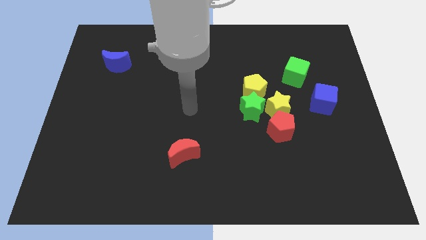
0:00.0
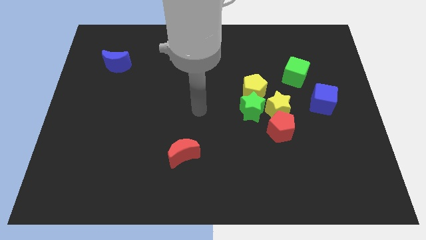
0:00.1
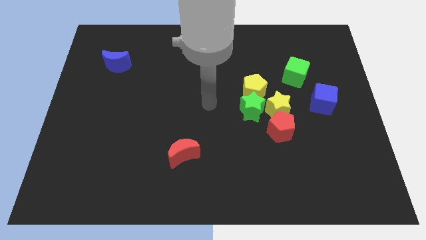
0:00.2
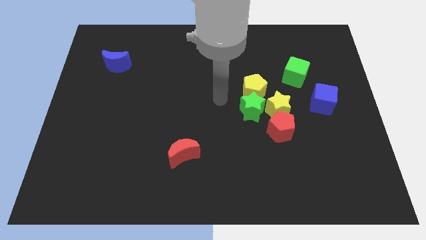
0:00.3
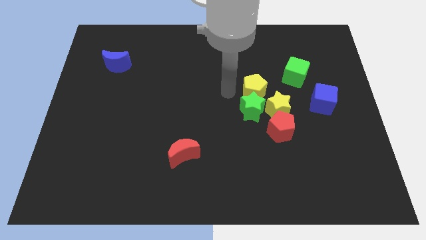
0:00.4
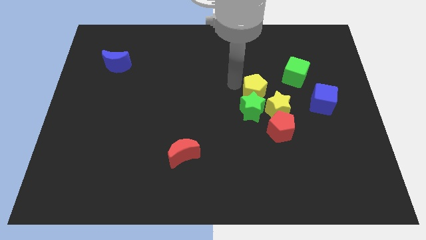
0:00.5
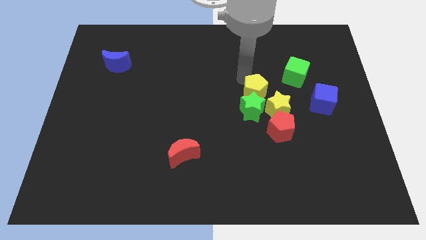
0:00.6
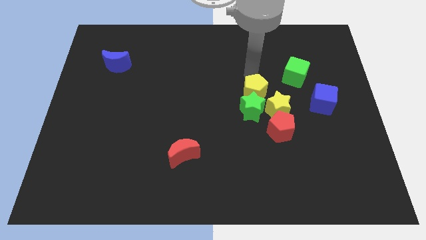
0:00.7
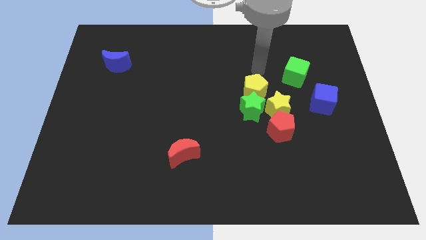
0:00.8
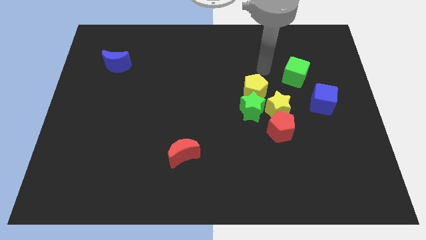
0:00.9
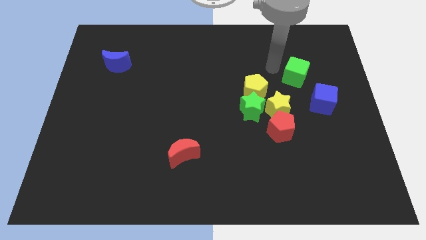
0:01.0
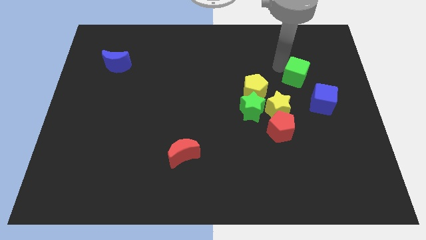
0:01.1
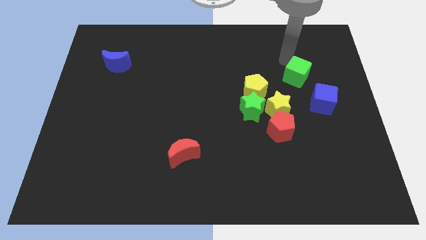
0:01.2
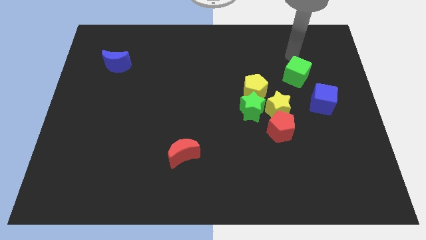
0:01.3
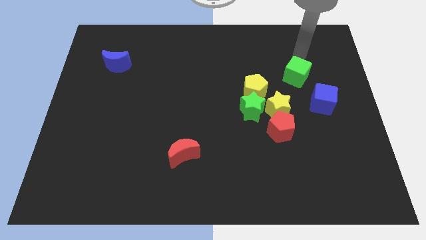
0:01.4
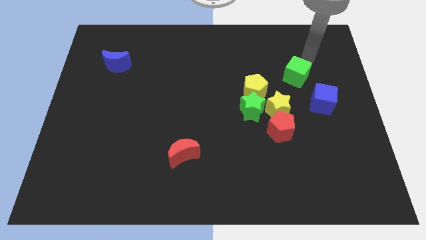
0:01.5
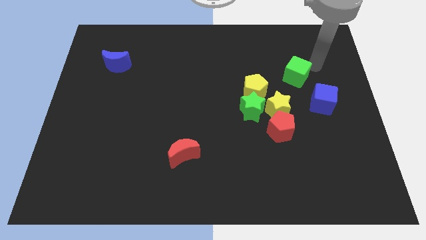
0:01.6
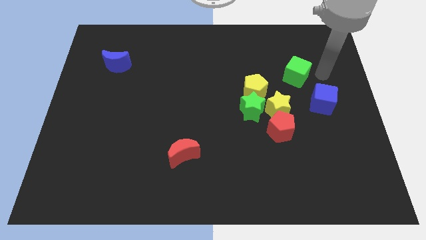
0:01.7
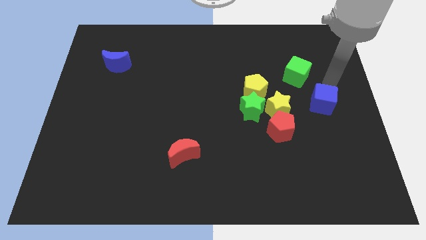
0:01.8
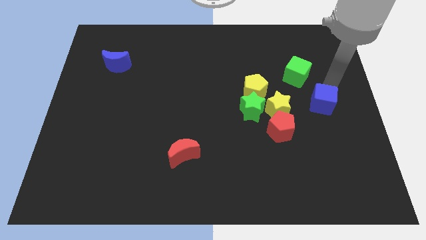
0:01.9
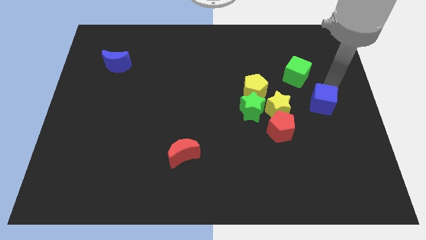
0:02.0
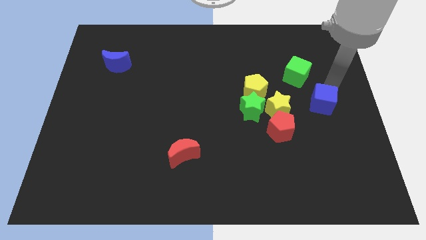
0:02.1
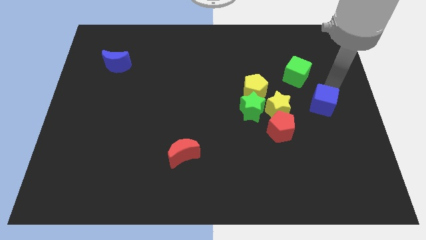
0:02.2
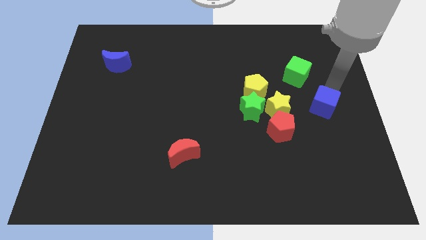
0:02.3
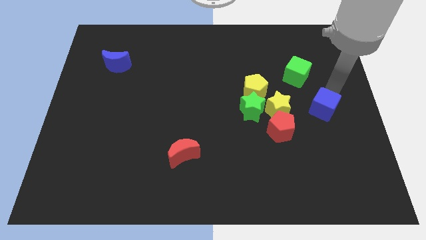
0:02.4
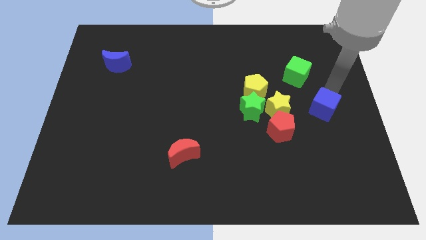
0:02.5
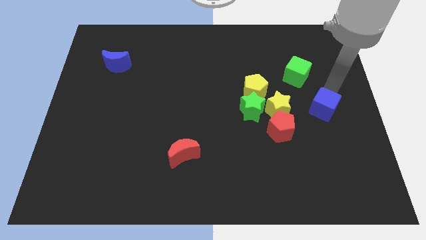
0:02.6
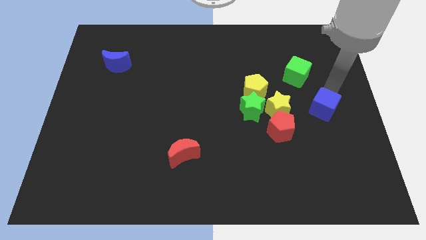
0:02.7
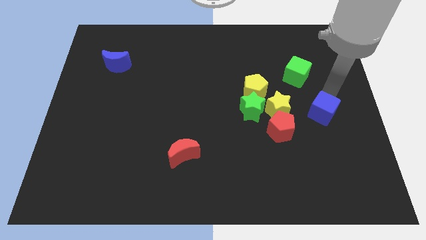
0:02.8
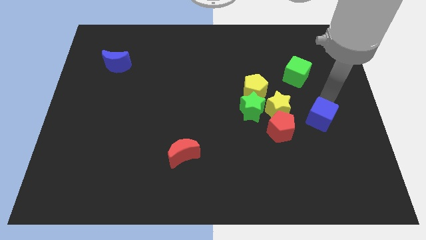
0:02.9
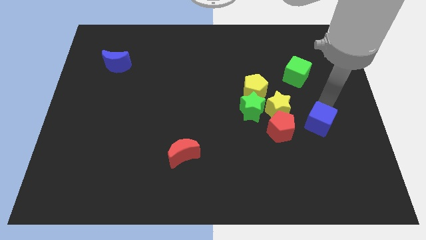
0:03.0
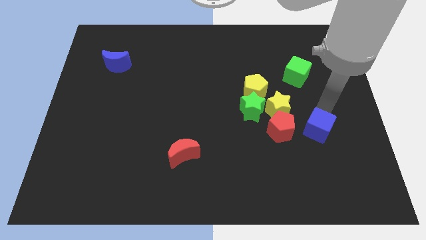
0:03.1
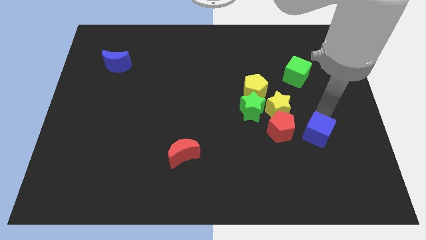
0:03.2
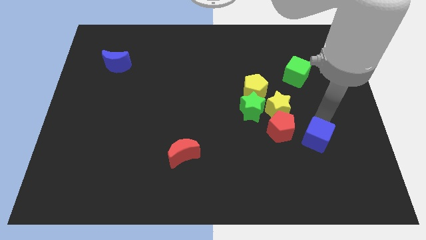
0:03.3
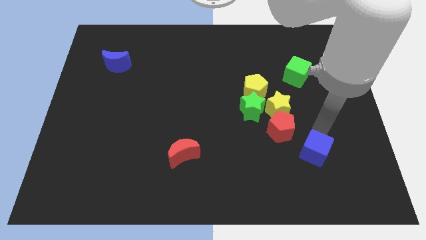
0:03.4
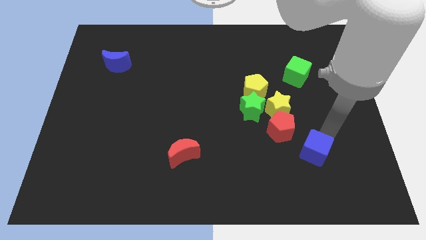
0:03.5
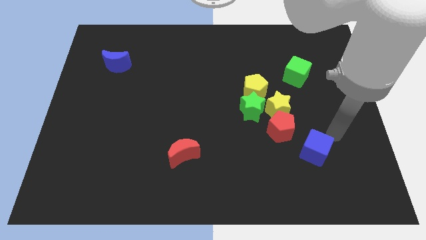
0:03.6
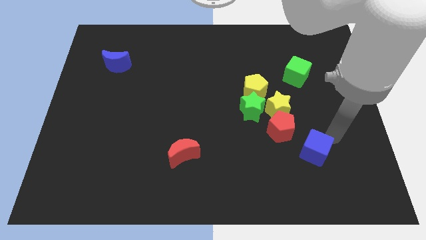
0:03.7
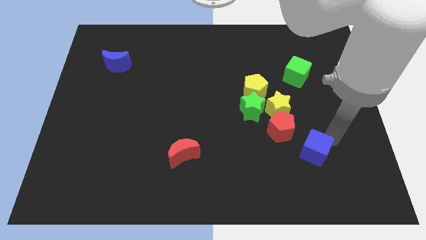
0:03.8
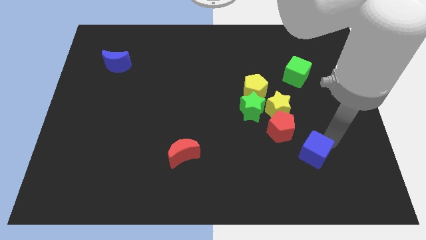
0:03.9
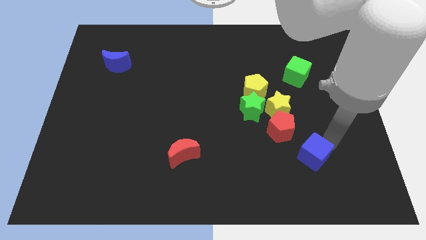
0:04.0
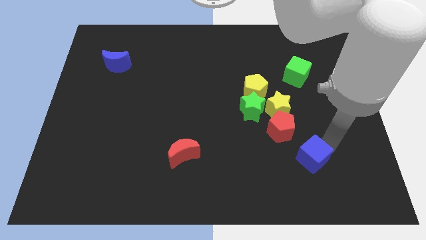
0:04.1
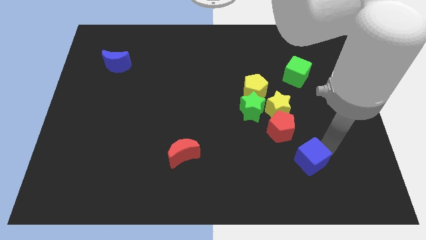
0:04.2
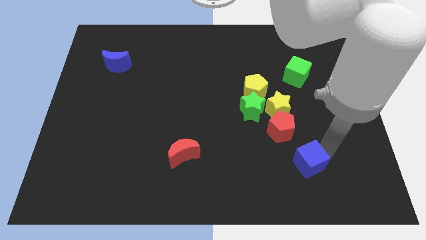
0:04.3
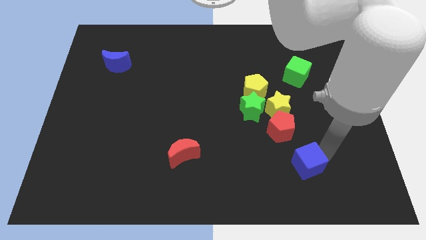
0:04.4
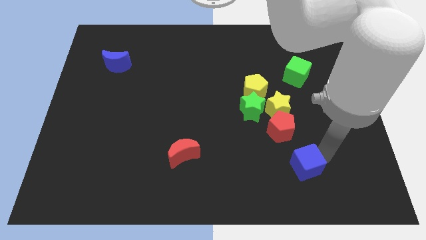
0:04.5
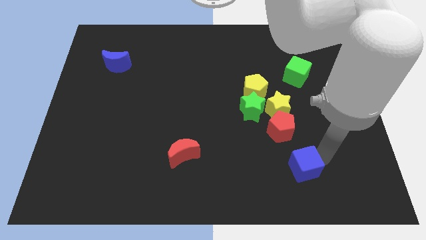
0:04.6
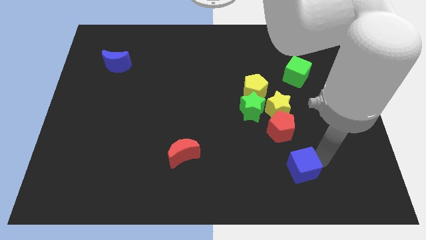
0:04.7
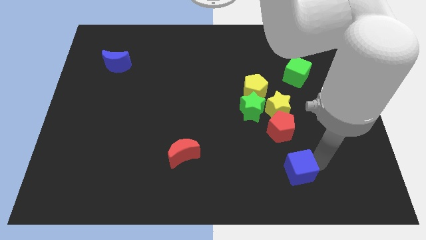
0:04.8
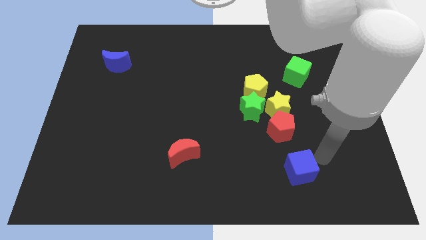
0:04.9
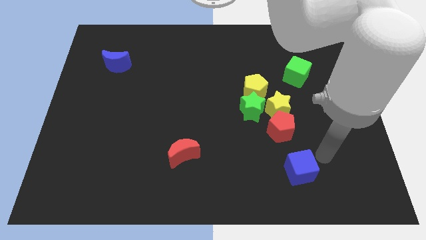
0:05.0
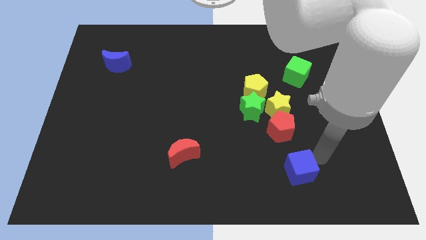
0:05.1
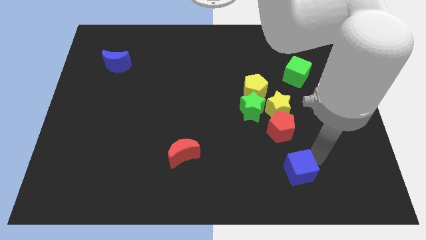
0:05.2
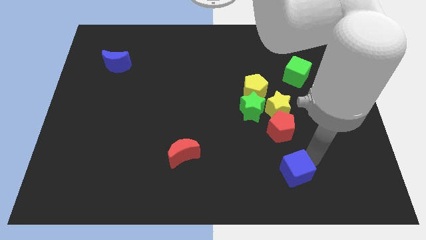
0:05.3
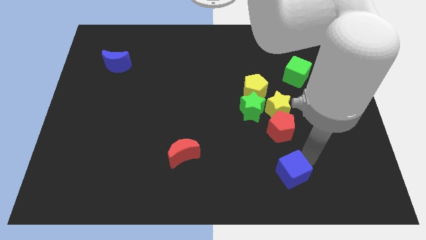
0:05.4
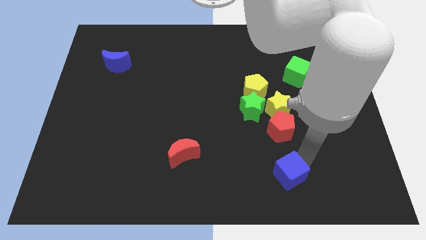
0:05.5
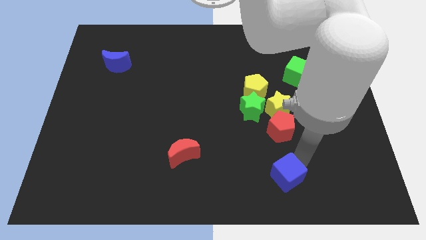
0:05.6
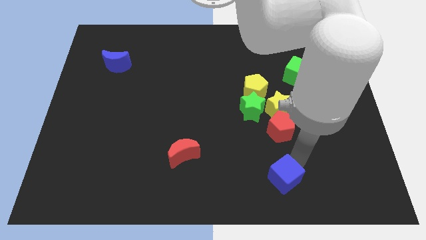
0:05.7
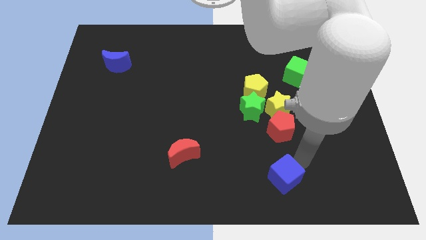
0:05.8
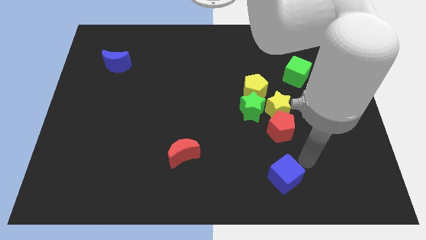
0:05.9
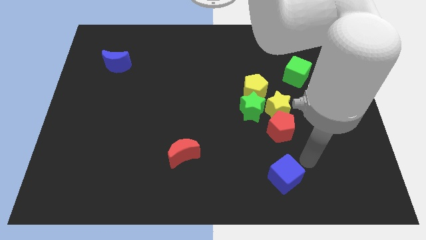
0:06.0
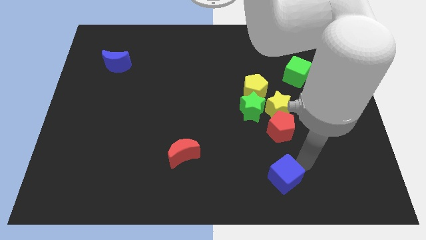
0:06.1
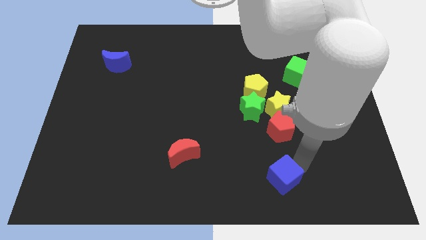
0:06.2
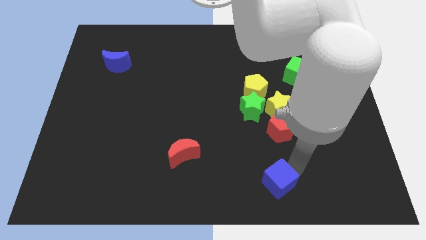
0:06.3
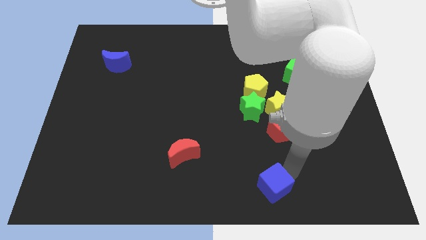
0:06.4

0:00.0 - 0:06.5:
slide the blue cube to the bottom
